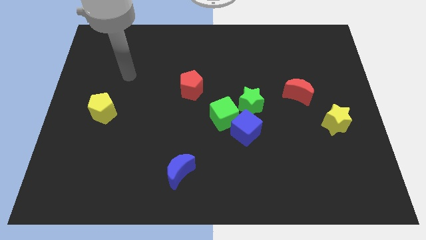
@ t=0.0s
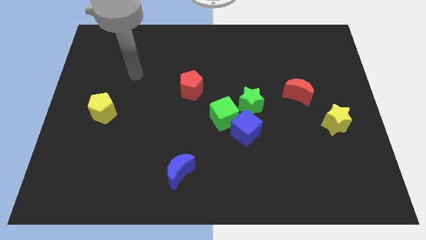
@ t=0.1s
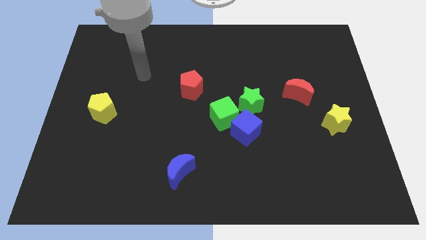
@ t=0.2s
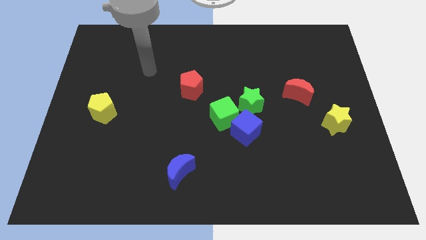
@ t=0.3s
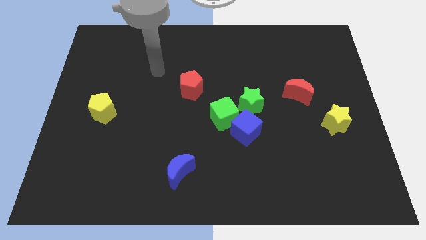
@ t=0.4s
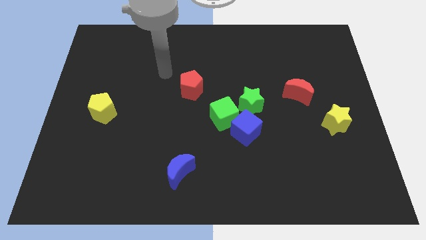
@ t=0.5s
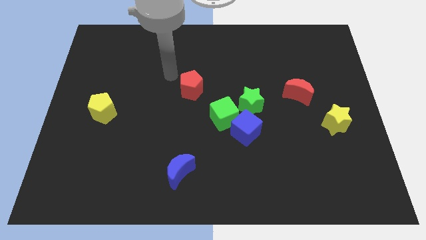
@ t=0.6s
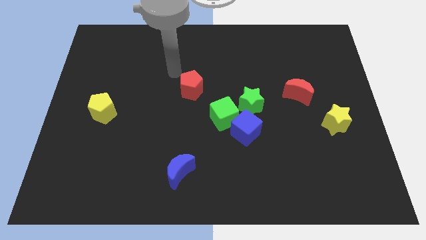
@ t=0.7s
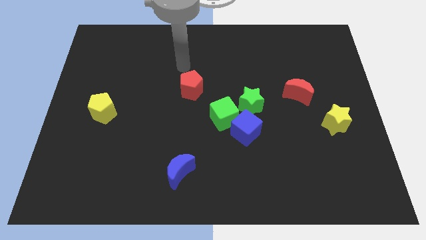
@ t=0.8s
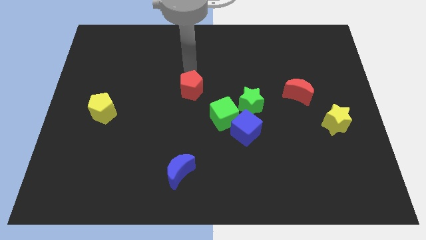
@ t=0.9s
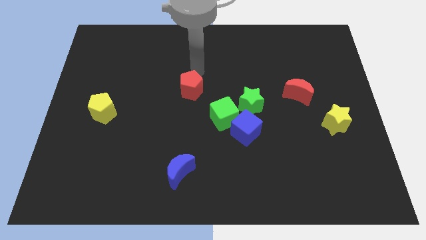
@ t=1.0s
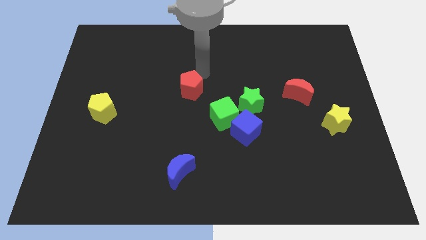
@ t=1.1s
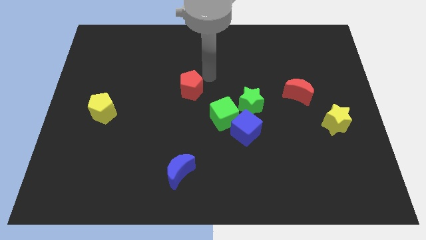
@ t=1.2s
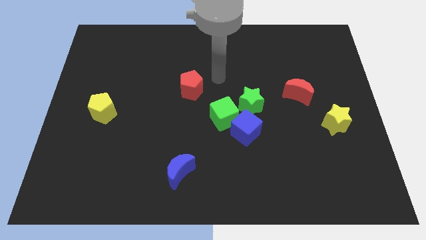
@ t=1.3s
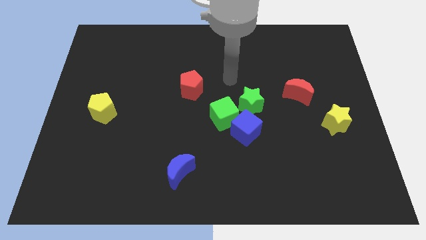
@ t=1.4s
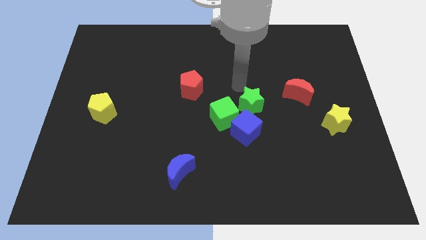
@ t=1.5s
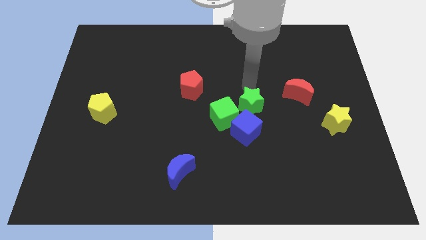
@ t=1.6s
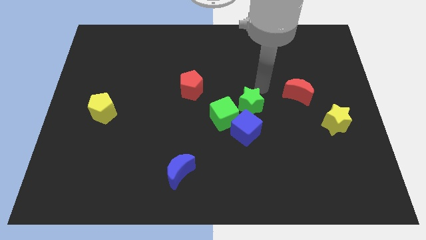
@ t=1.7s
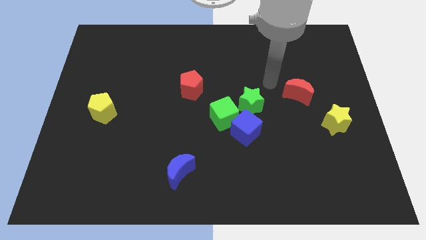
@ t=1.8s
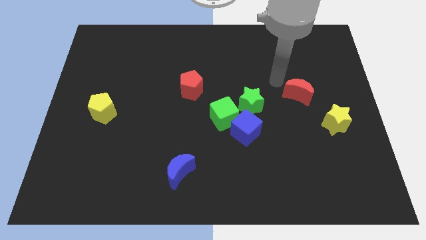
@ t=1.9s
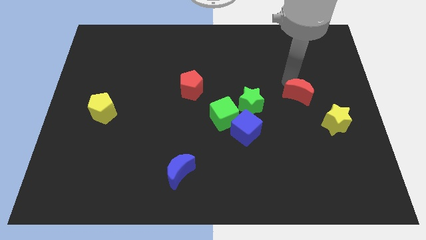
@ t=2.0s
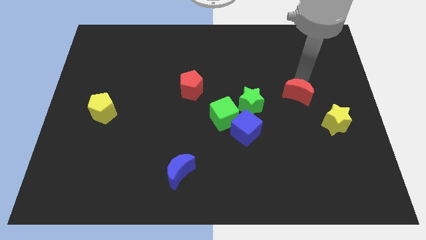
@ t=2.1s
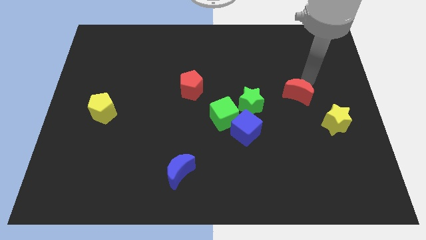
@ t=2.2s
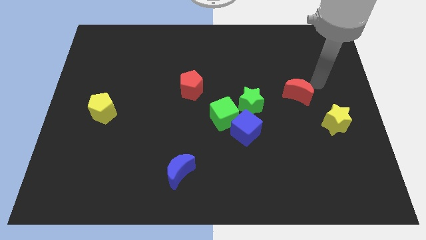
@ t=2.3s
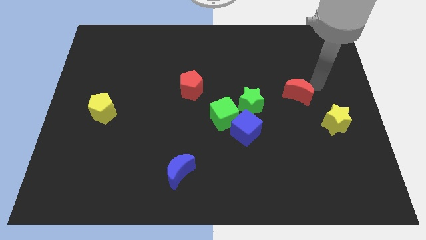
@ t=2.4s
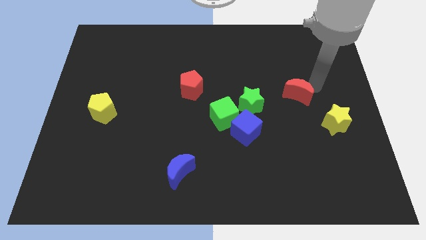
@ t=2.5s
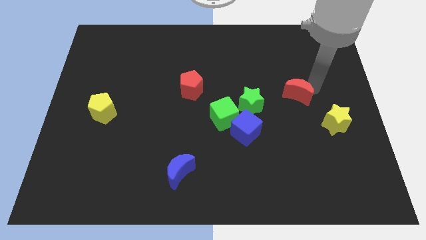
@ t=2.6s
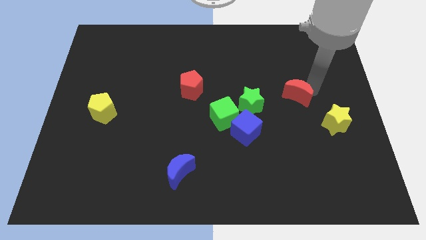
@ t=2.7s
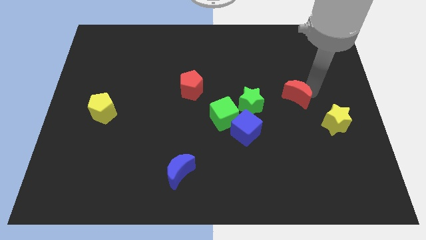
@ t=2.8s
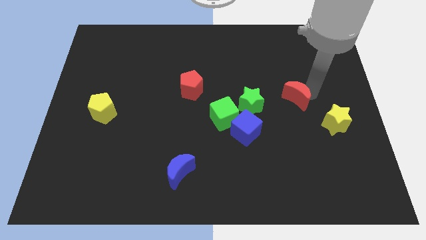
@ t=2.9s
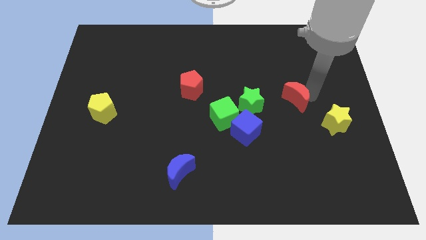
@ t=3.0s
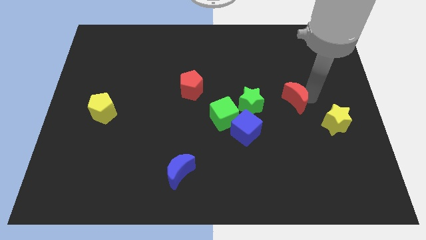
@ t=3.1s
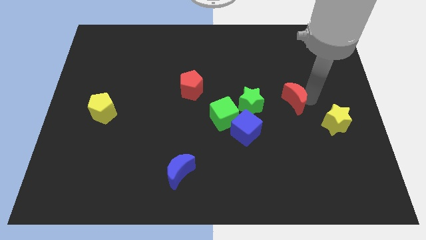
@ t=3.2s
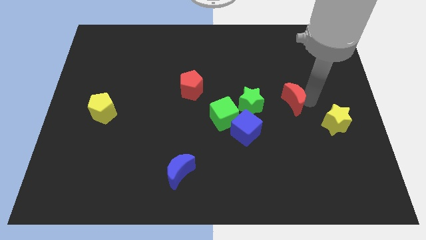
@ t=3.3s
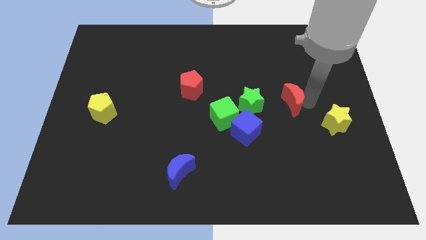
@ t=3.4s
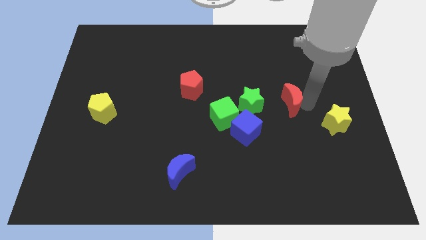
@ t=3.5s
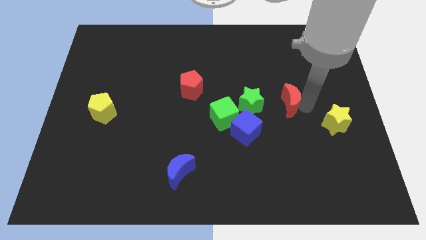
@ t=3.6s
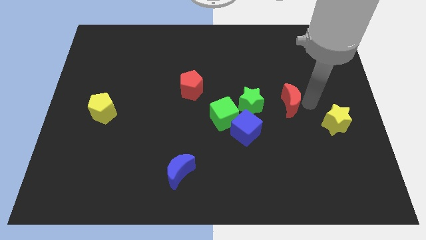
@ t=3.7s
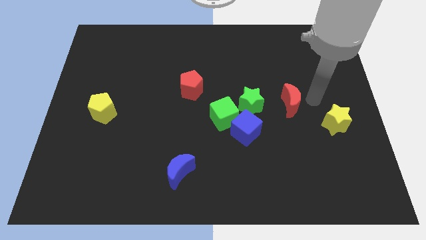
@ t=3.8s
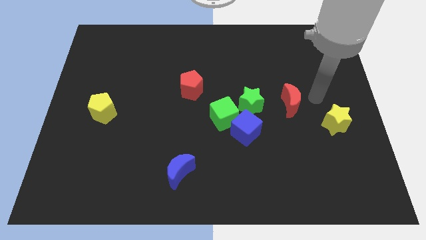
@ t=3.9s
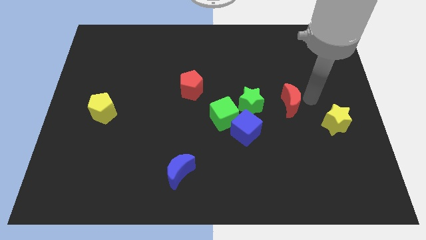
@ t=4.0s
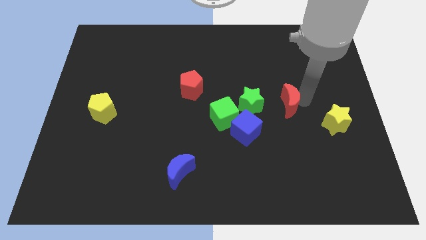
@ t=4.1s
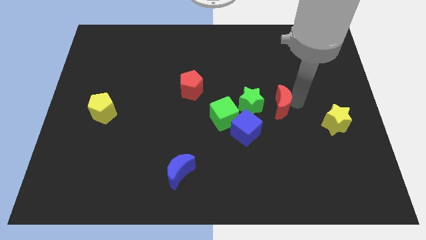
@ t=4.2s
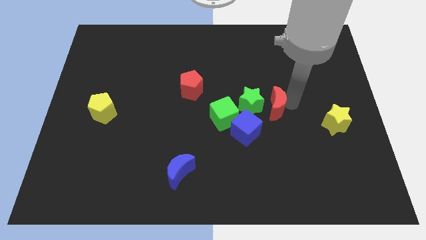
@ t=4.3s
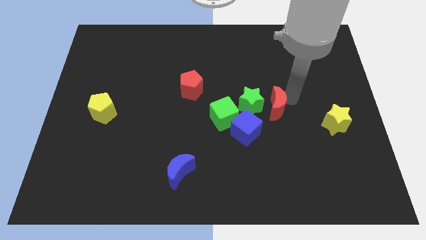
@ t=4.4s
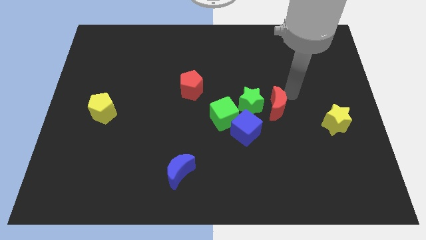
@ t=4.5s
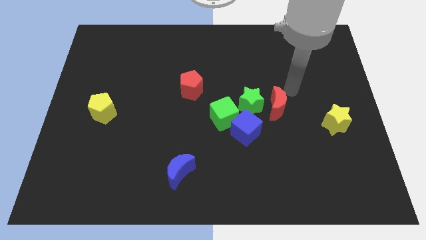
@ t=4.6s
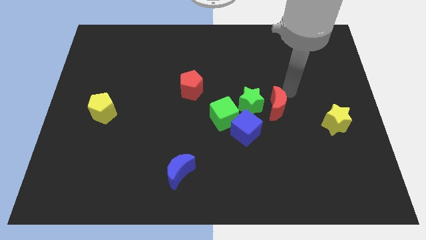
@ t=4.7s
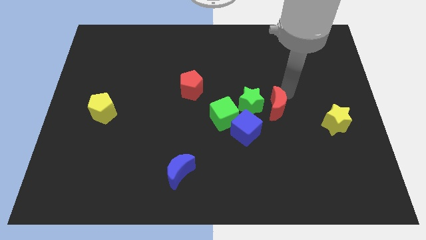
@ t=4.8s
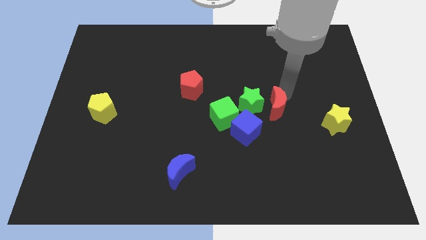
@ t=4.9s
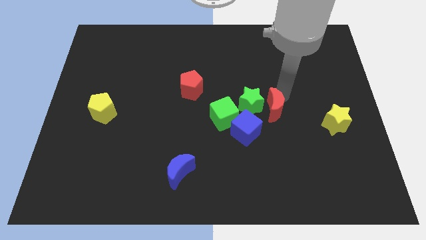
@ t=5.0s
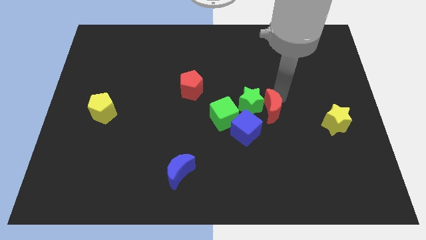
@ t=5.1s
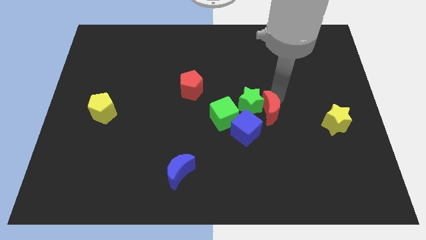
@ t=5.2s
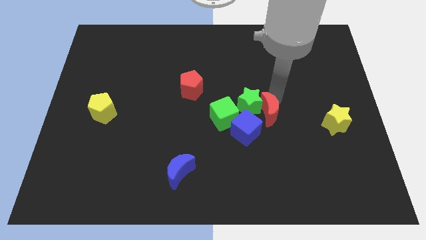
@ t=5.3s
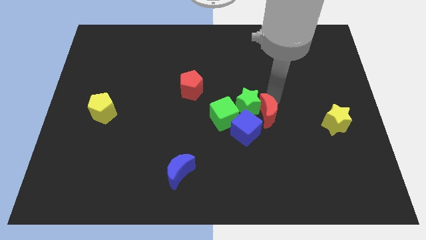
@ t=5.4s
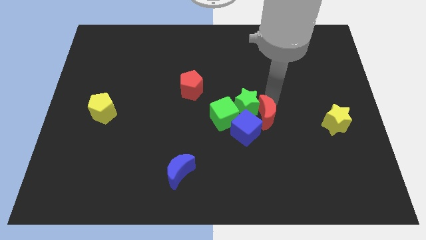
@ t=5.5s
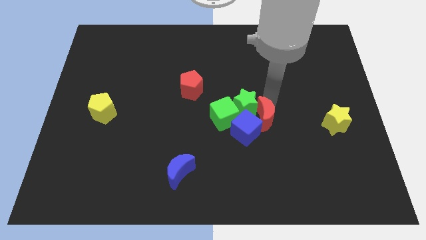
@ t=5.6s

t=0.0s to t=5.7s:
move the red moon to the blue cube

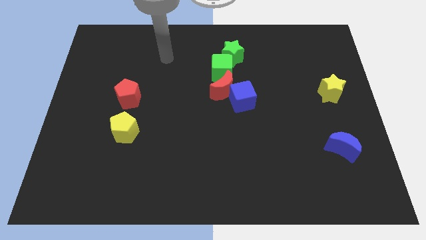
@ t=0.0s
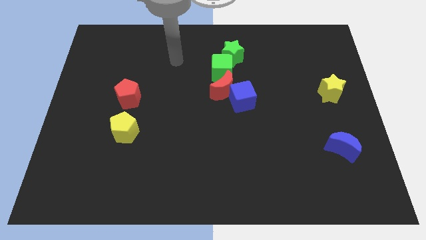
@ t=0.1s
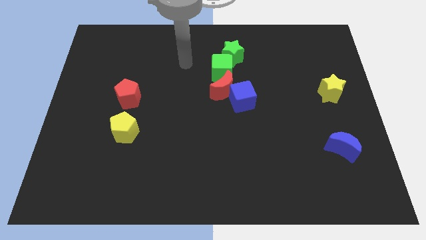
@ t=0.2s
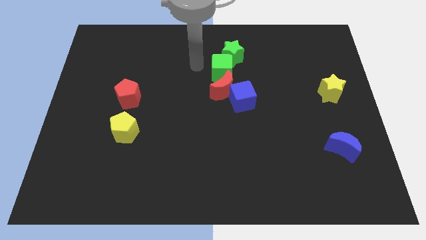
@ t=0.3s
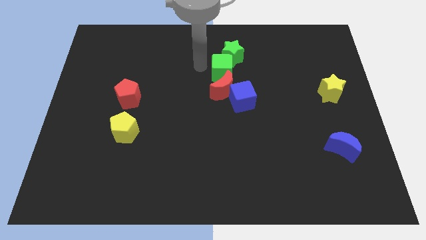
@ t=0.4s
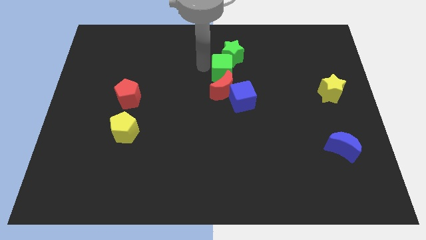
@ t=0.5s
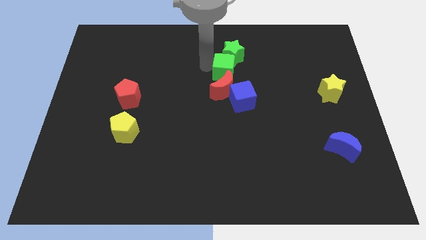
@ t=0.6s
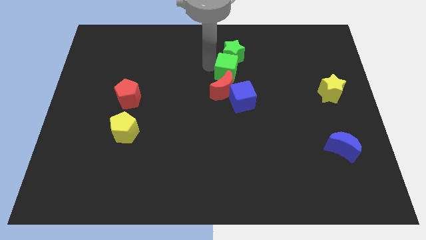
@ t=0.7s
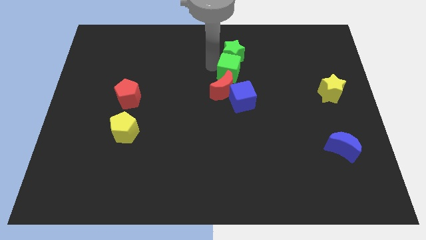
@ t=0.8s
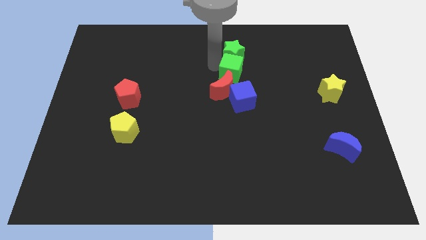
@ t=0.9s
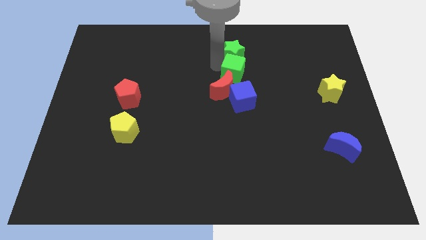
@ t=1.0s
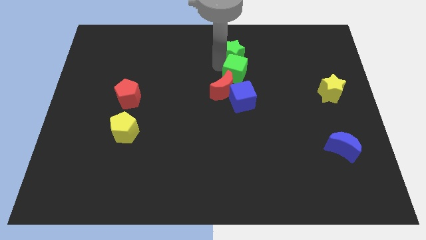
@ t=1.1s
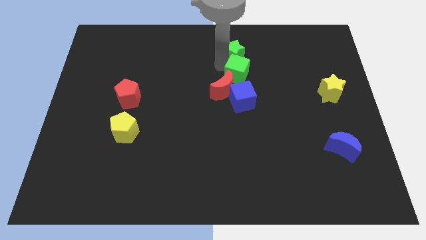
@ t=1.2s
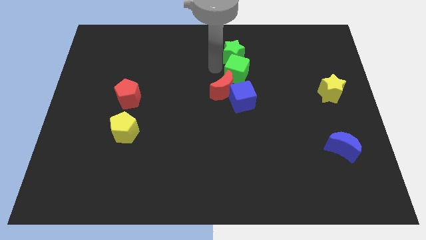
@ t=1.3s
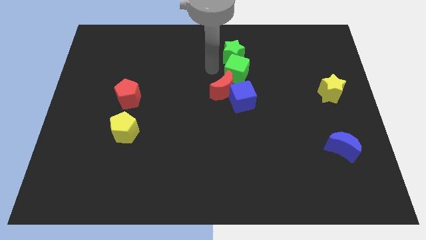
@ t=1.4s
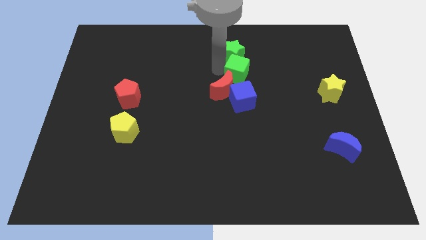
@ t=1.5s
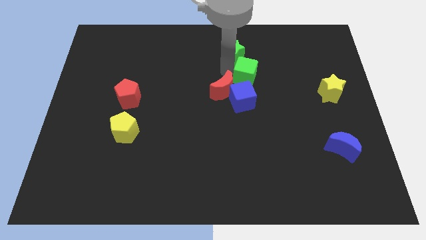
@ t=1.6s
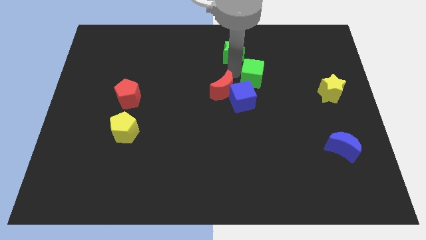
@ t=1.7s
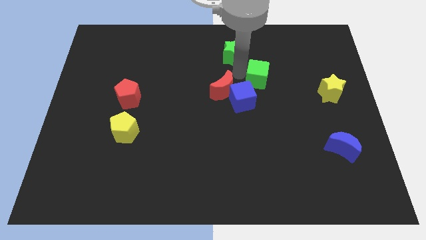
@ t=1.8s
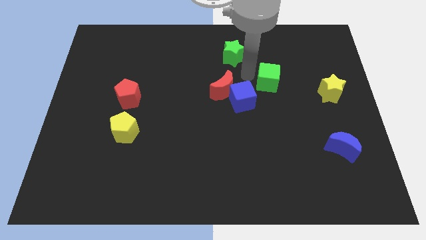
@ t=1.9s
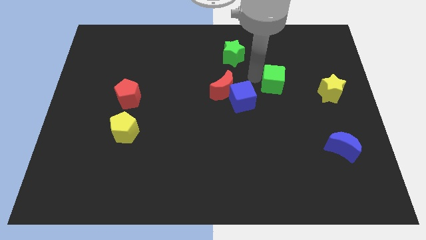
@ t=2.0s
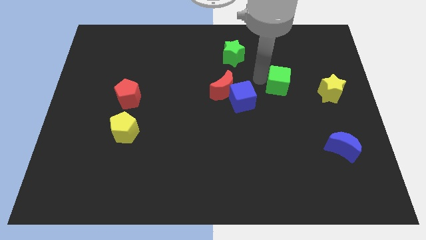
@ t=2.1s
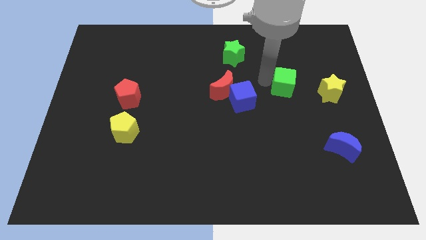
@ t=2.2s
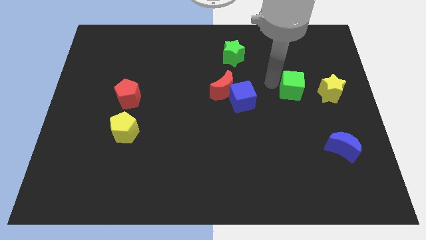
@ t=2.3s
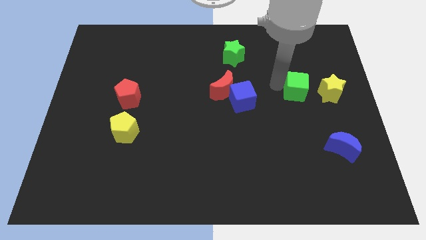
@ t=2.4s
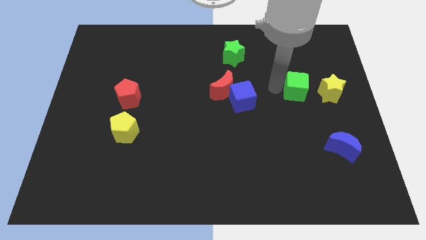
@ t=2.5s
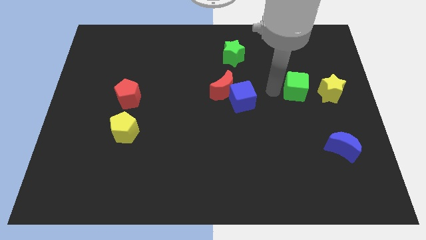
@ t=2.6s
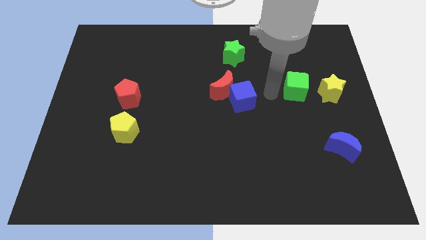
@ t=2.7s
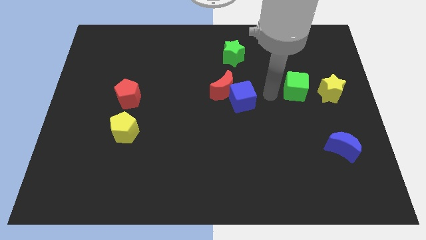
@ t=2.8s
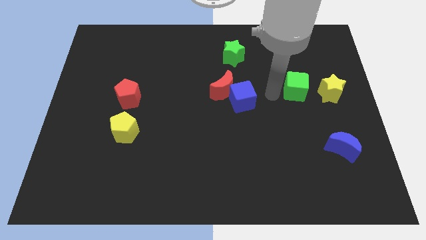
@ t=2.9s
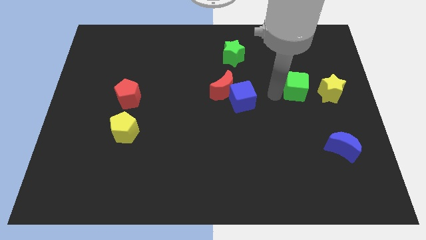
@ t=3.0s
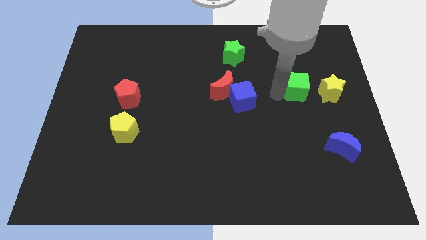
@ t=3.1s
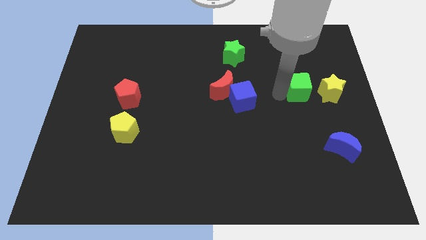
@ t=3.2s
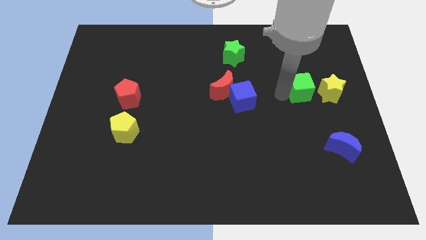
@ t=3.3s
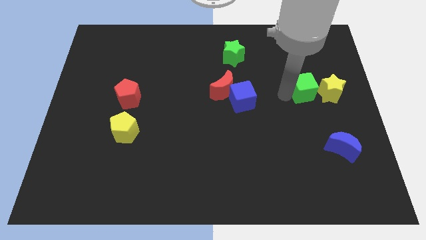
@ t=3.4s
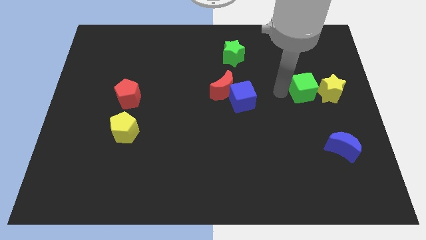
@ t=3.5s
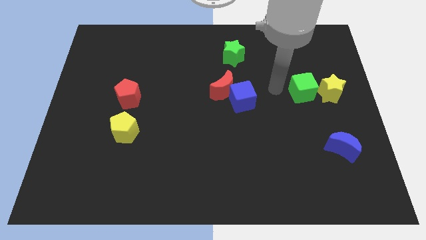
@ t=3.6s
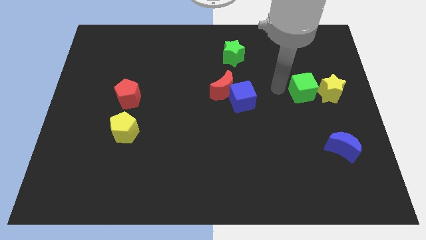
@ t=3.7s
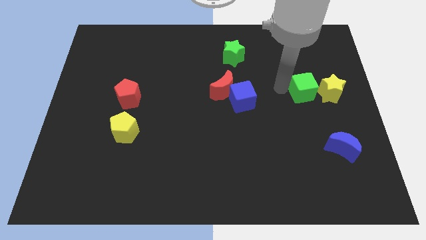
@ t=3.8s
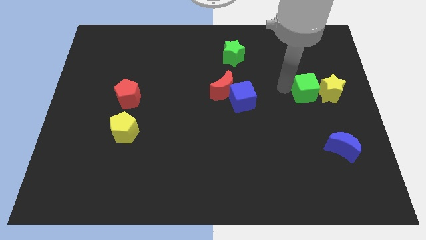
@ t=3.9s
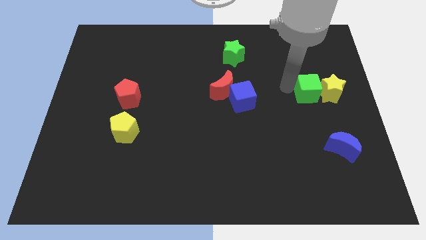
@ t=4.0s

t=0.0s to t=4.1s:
slide the green cube to the yellow star
